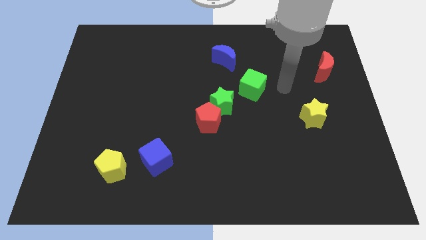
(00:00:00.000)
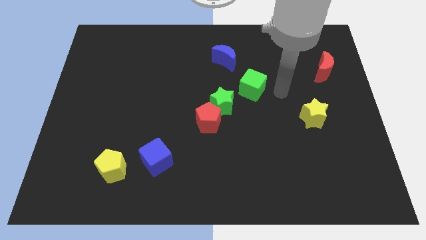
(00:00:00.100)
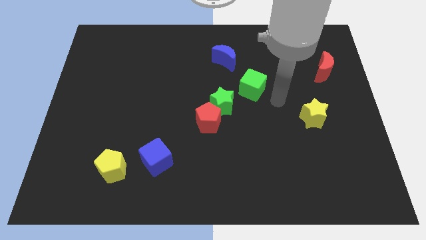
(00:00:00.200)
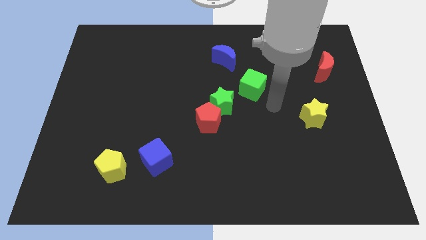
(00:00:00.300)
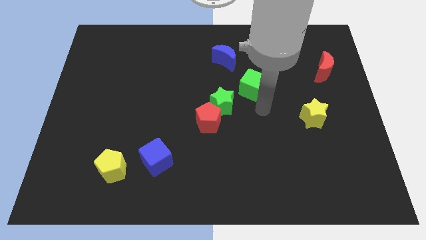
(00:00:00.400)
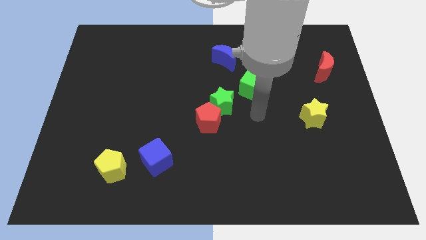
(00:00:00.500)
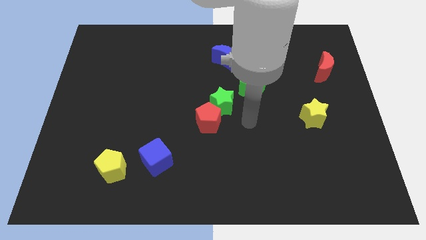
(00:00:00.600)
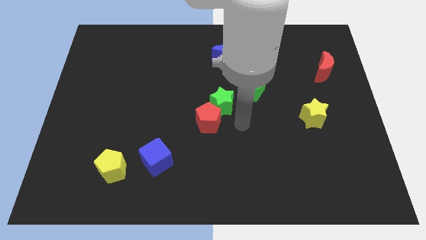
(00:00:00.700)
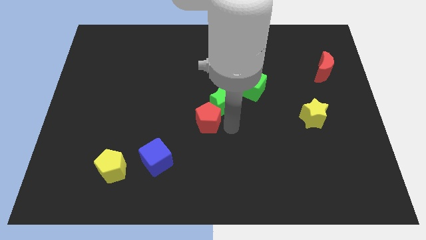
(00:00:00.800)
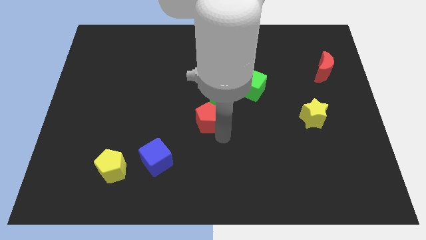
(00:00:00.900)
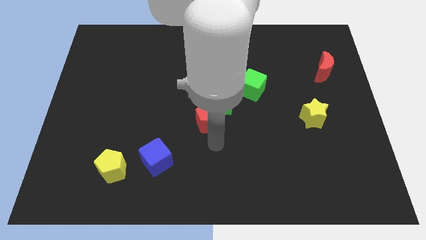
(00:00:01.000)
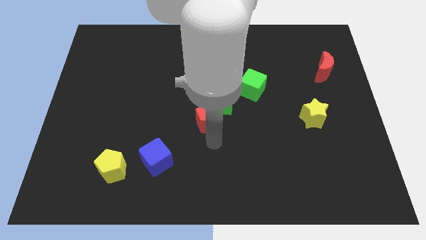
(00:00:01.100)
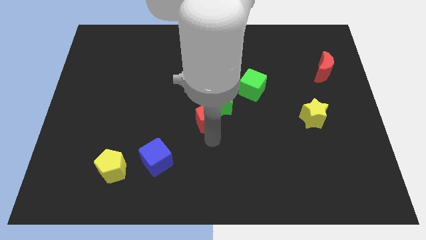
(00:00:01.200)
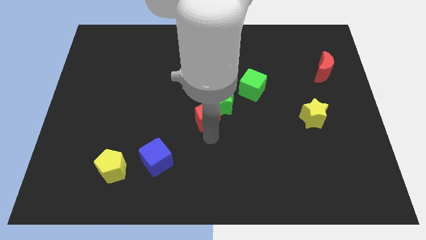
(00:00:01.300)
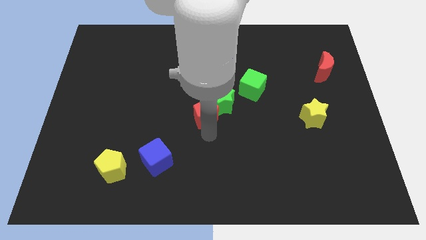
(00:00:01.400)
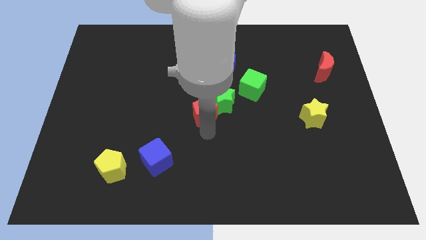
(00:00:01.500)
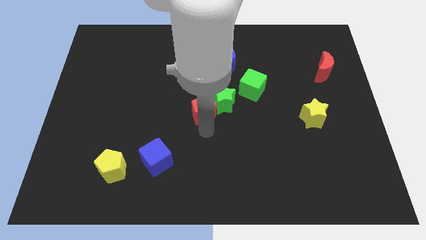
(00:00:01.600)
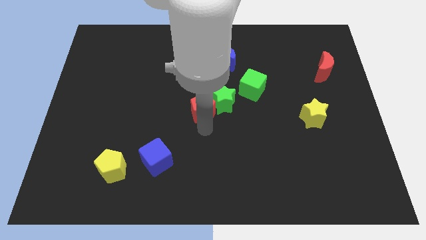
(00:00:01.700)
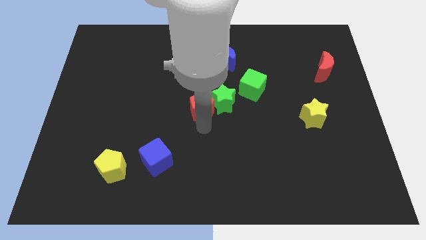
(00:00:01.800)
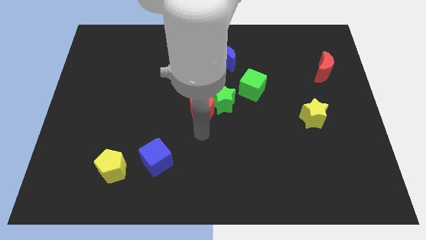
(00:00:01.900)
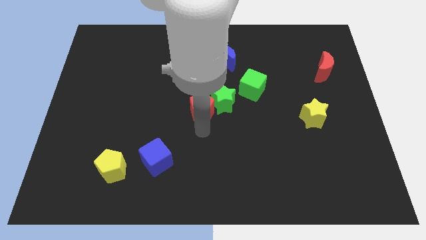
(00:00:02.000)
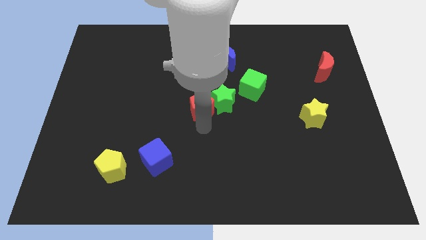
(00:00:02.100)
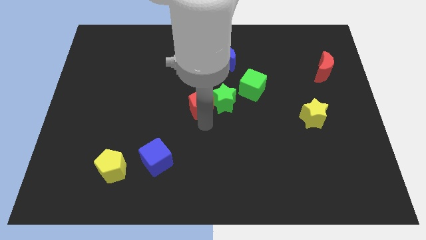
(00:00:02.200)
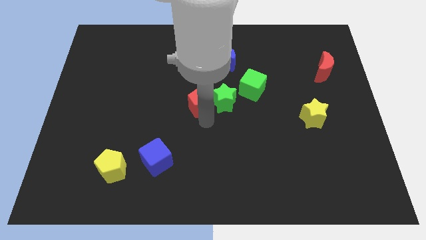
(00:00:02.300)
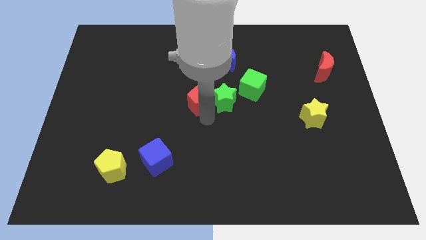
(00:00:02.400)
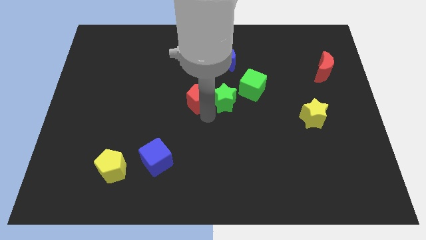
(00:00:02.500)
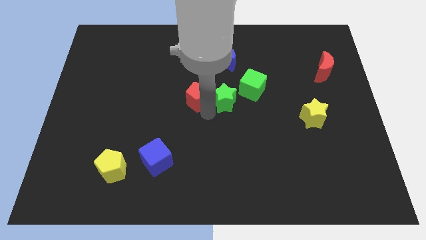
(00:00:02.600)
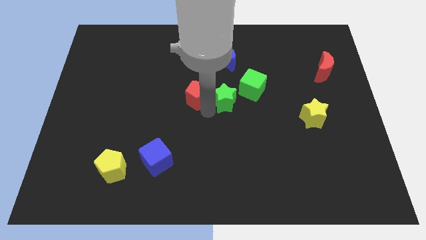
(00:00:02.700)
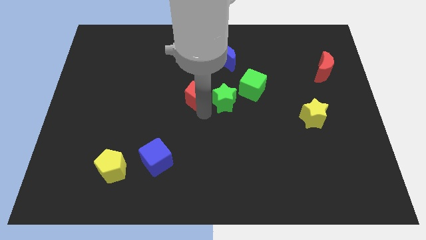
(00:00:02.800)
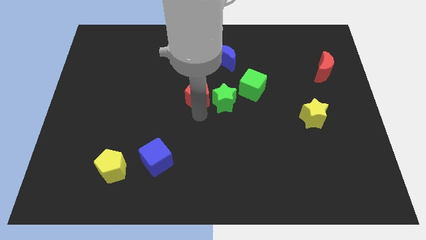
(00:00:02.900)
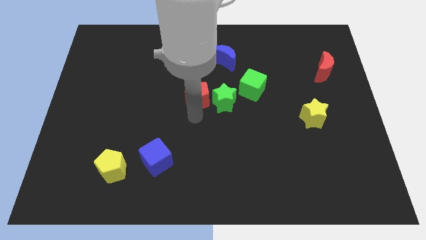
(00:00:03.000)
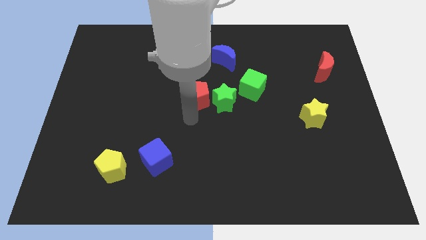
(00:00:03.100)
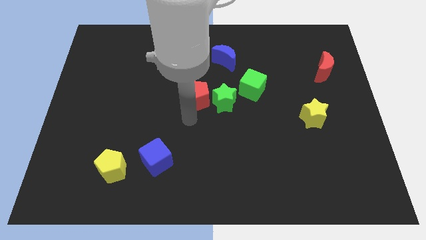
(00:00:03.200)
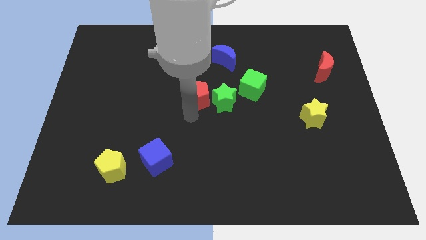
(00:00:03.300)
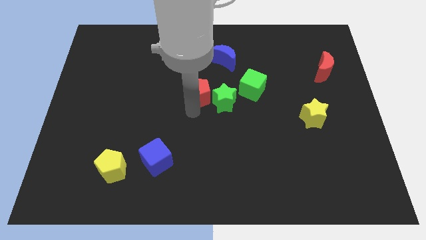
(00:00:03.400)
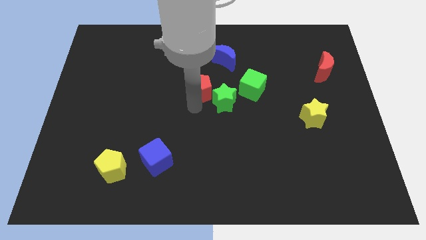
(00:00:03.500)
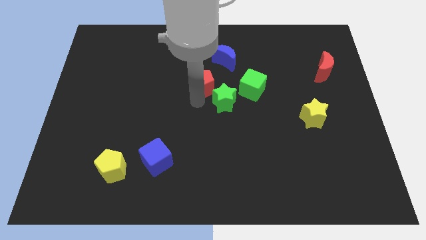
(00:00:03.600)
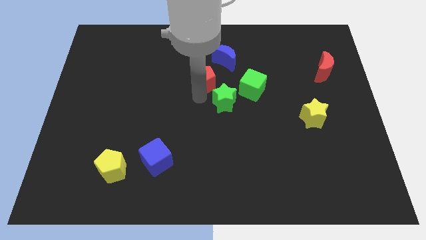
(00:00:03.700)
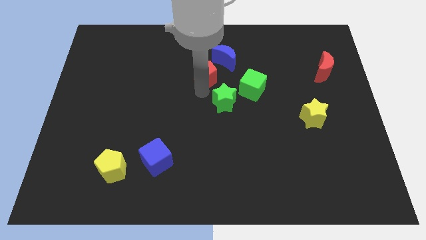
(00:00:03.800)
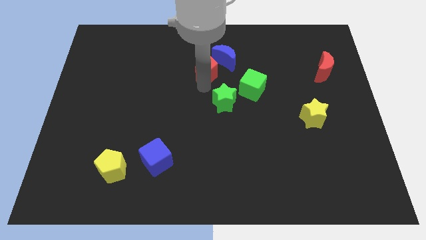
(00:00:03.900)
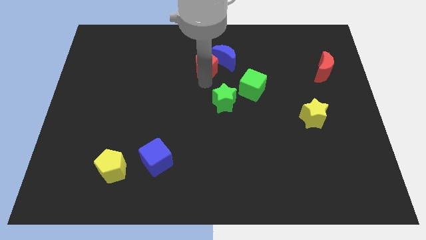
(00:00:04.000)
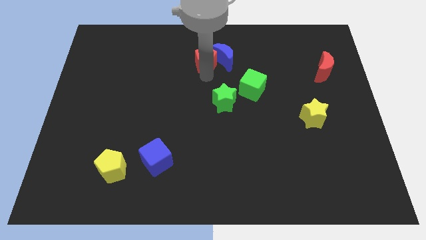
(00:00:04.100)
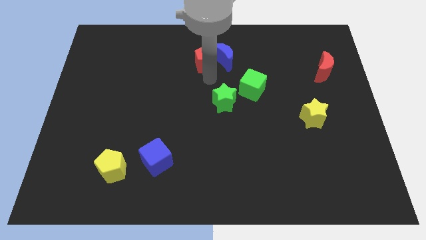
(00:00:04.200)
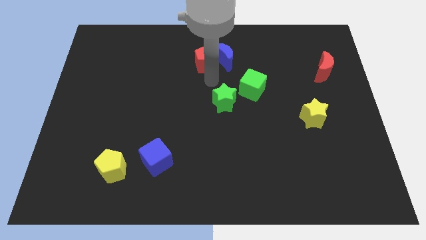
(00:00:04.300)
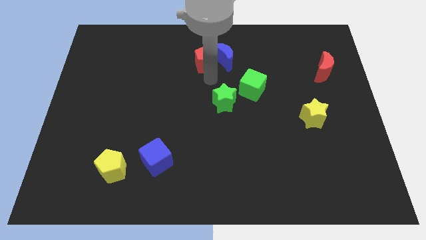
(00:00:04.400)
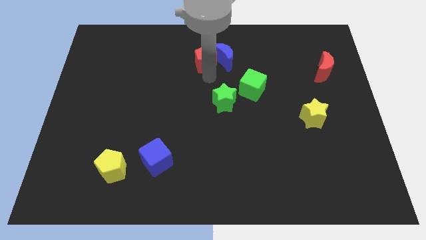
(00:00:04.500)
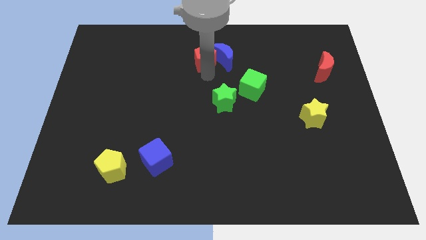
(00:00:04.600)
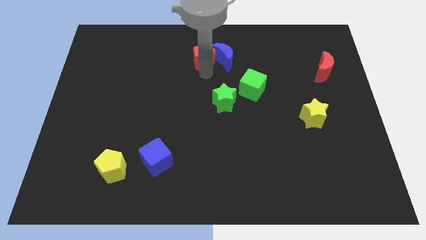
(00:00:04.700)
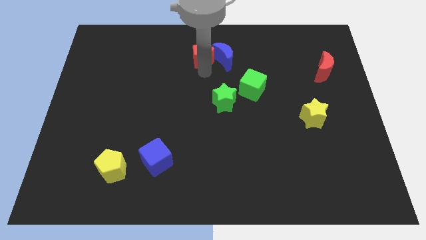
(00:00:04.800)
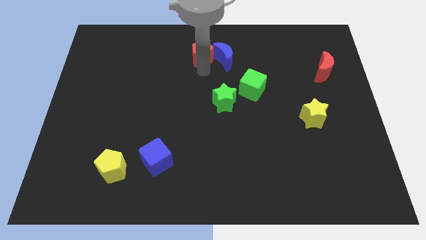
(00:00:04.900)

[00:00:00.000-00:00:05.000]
put the red pentagon to the top side
